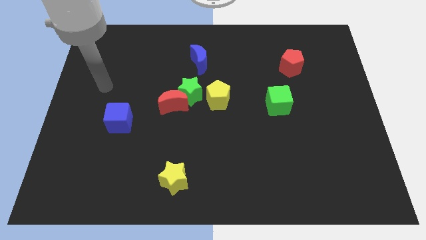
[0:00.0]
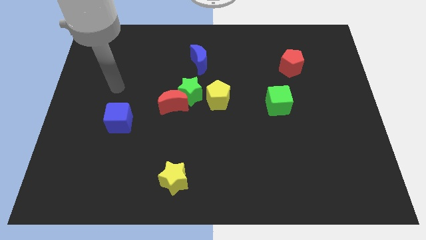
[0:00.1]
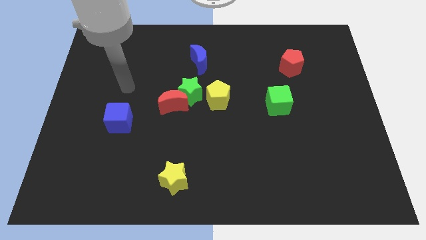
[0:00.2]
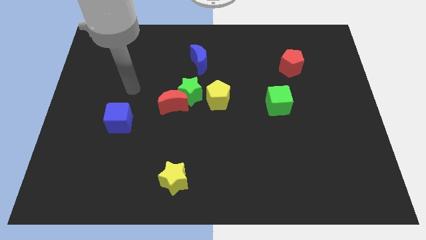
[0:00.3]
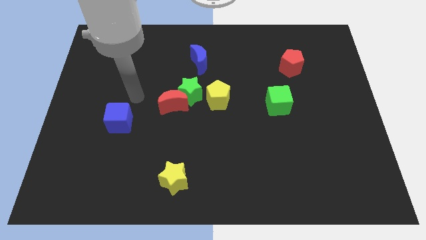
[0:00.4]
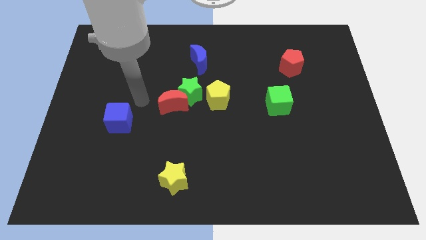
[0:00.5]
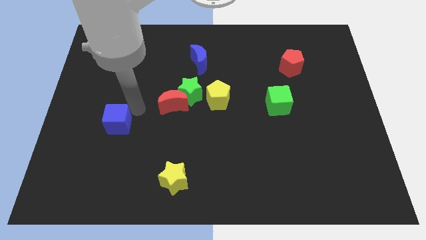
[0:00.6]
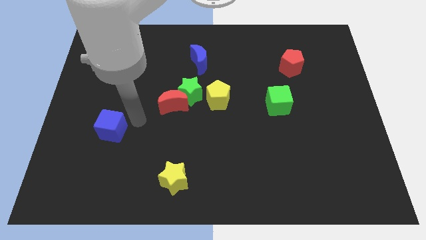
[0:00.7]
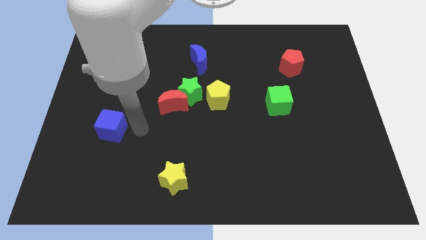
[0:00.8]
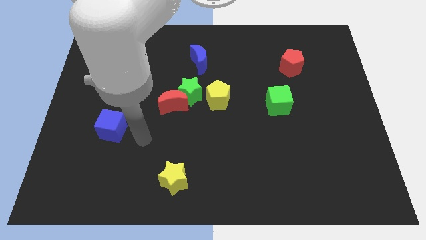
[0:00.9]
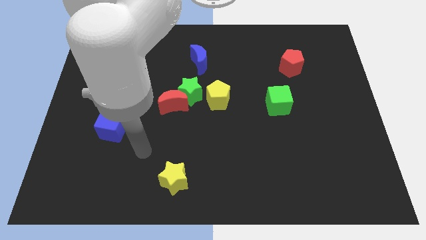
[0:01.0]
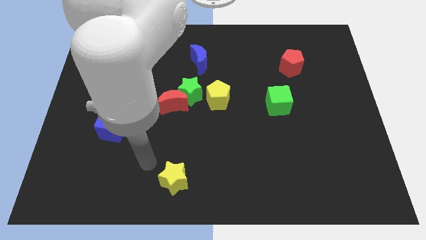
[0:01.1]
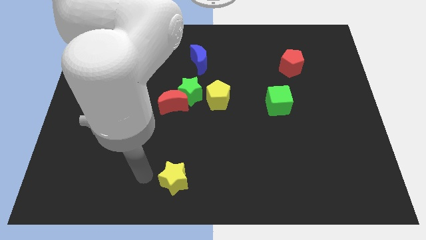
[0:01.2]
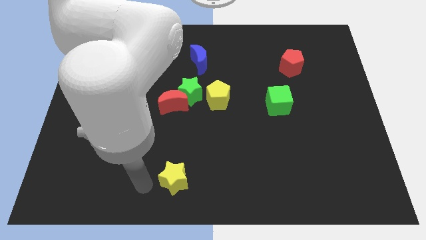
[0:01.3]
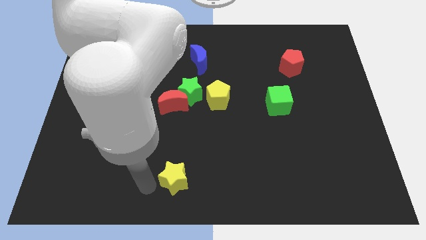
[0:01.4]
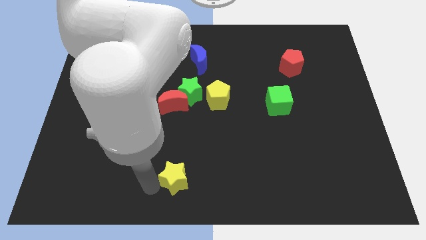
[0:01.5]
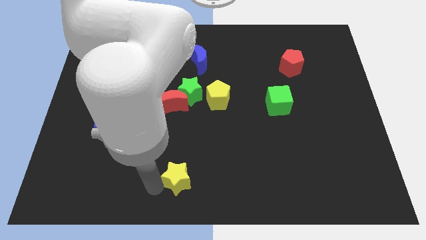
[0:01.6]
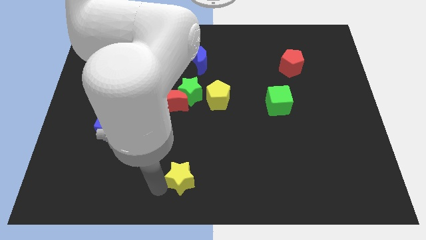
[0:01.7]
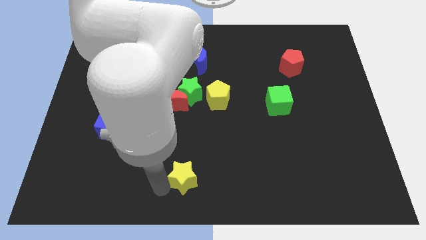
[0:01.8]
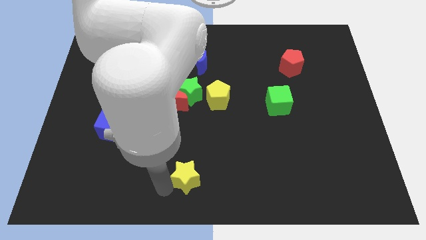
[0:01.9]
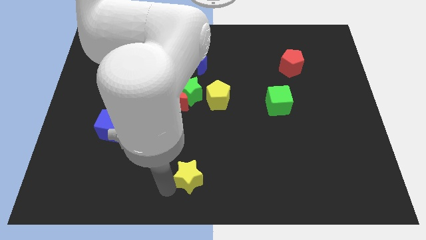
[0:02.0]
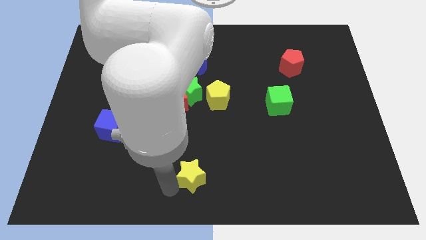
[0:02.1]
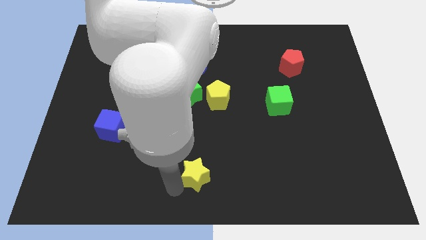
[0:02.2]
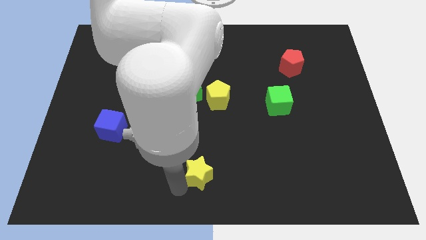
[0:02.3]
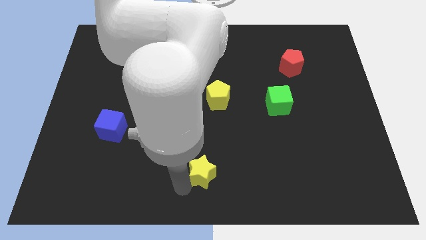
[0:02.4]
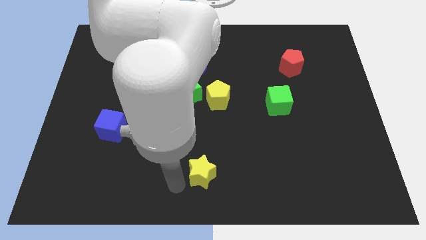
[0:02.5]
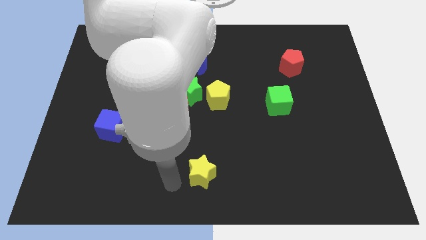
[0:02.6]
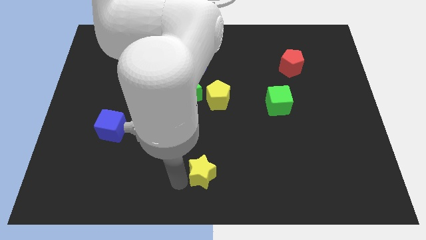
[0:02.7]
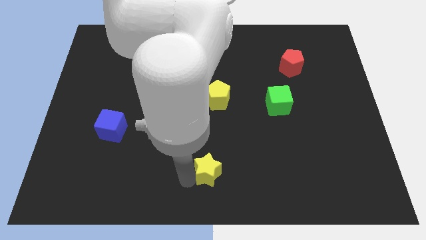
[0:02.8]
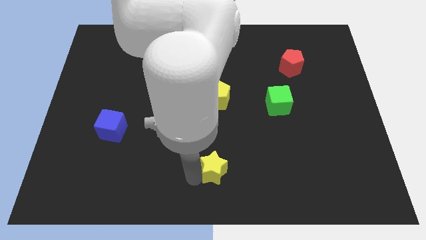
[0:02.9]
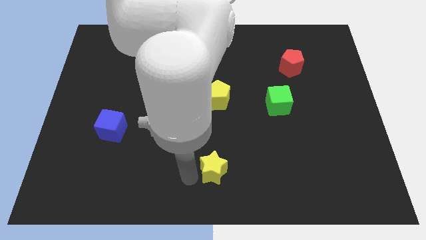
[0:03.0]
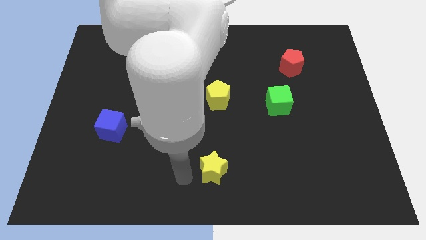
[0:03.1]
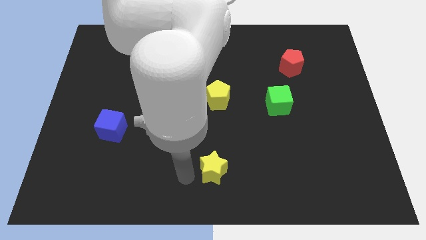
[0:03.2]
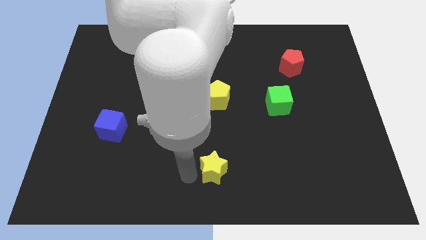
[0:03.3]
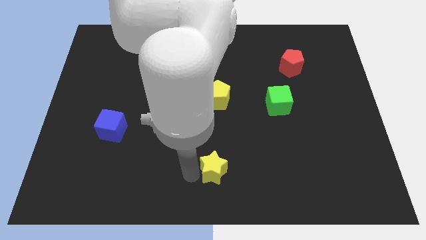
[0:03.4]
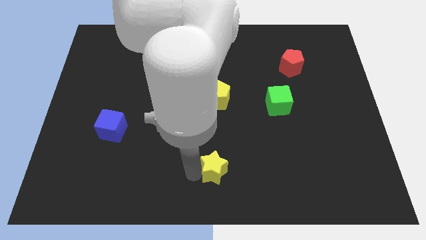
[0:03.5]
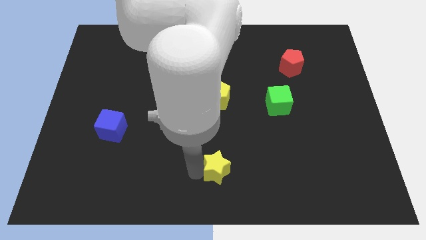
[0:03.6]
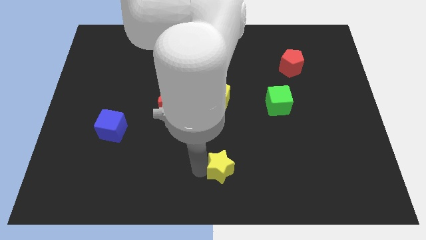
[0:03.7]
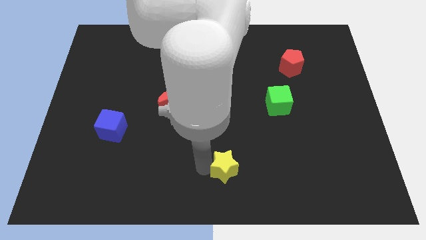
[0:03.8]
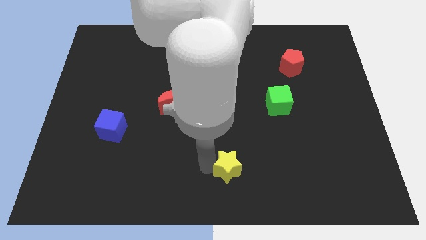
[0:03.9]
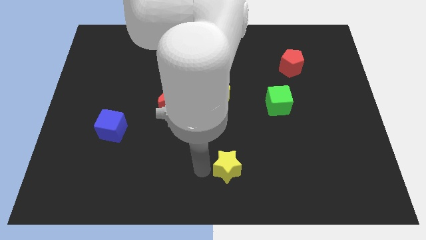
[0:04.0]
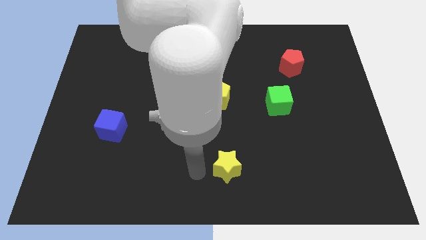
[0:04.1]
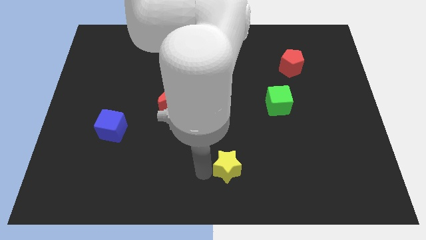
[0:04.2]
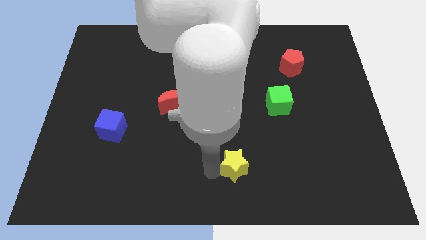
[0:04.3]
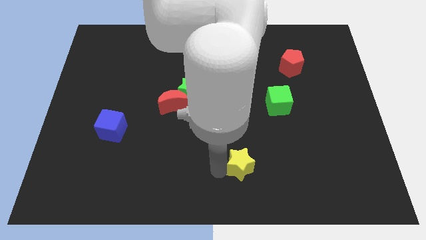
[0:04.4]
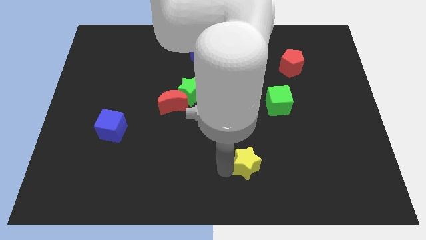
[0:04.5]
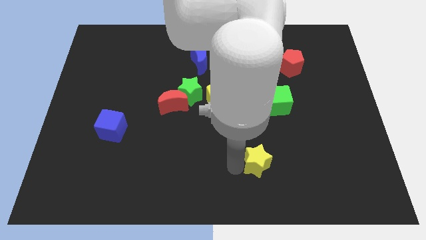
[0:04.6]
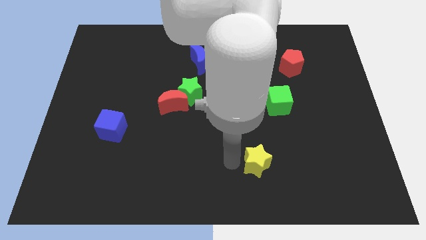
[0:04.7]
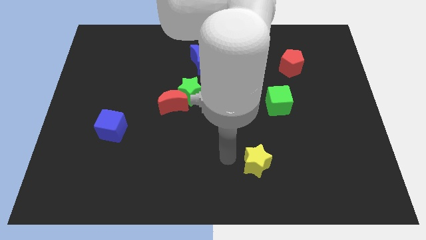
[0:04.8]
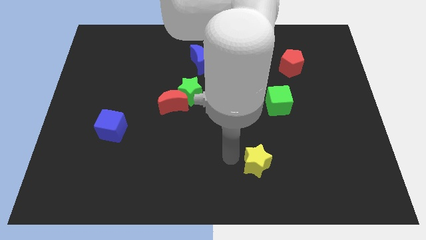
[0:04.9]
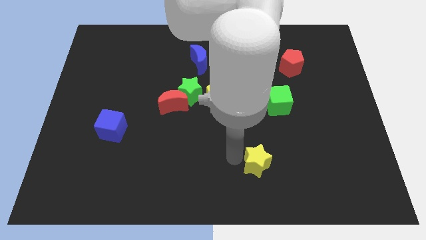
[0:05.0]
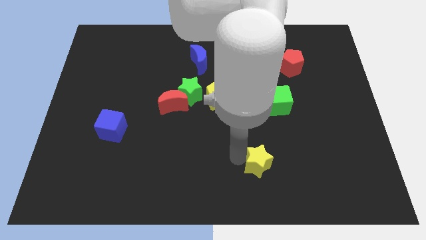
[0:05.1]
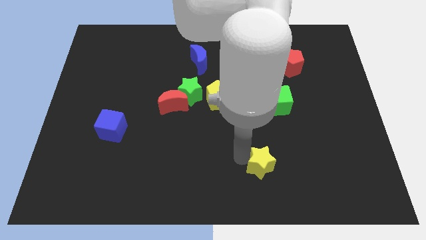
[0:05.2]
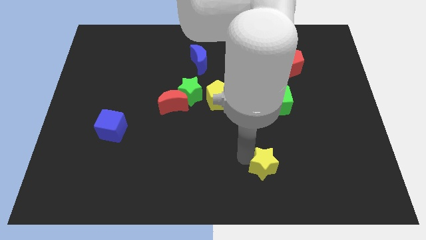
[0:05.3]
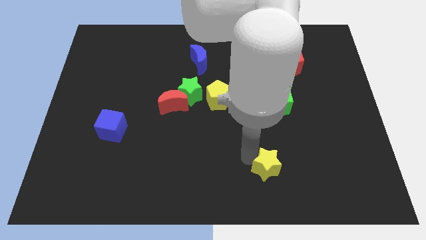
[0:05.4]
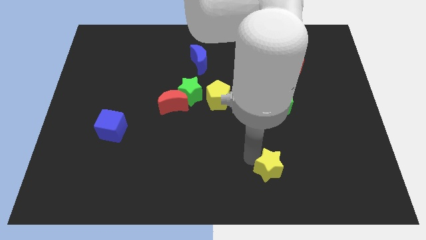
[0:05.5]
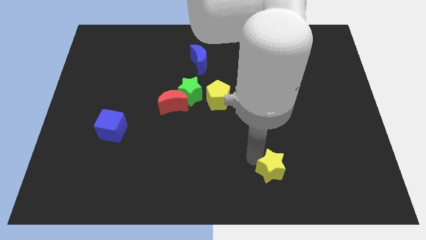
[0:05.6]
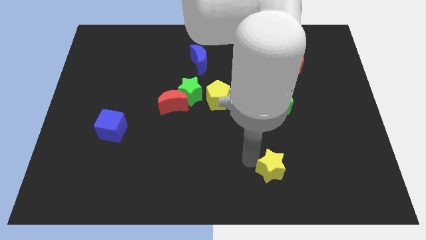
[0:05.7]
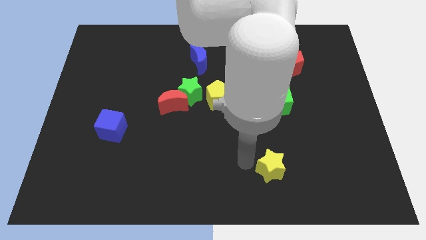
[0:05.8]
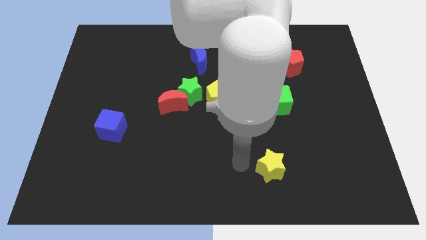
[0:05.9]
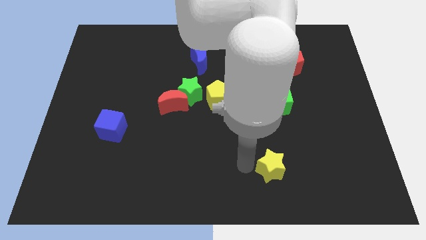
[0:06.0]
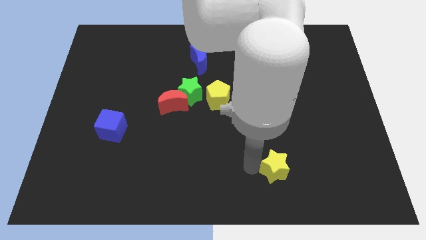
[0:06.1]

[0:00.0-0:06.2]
move the yellow star to the right

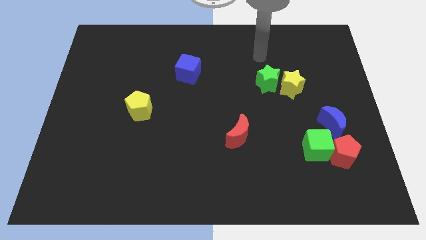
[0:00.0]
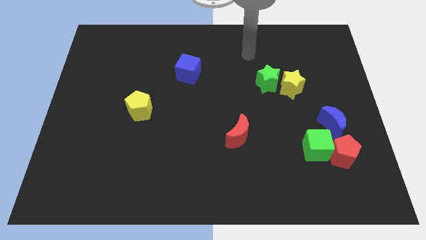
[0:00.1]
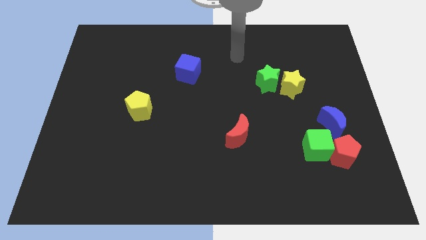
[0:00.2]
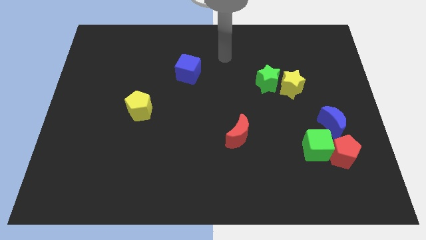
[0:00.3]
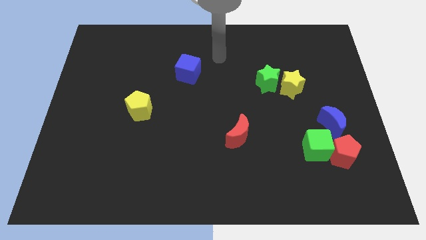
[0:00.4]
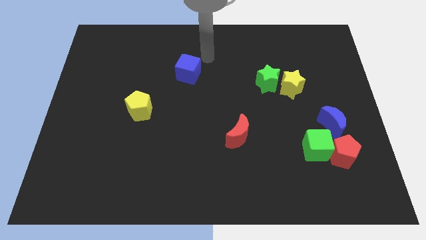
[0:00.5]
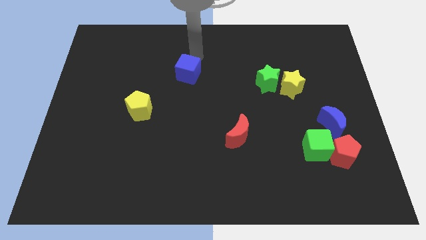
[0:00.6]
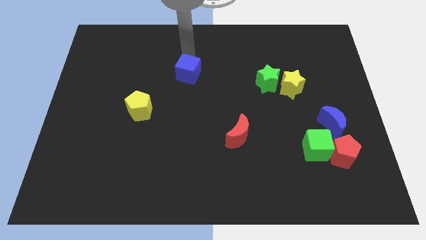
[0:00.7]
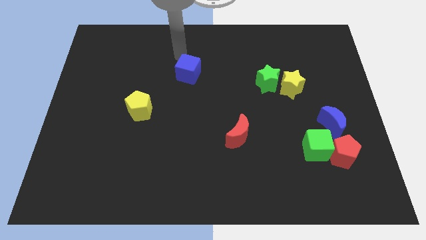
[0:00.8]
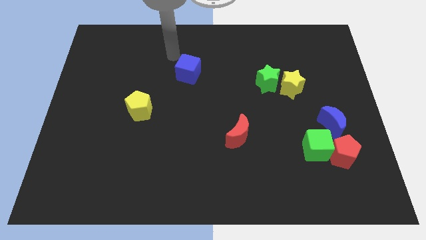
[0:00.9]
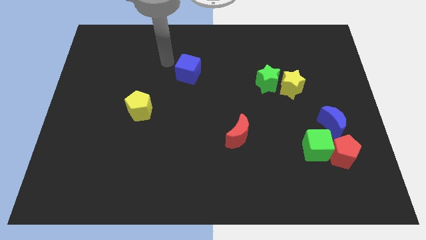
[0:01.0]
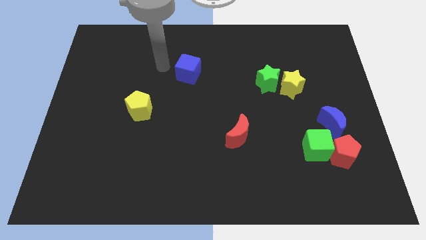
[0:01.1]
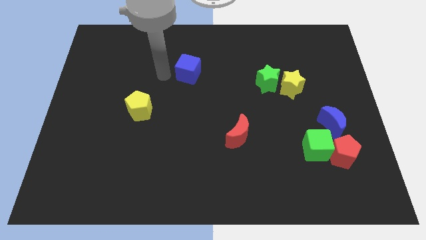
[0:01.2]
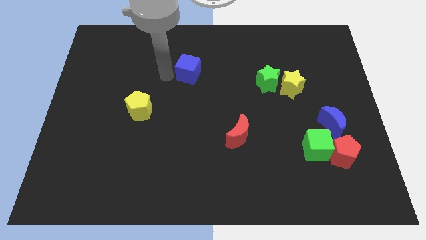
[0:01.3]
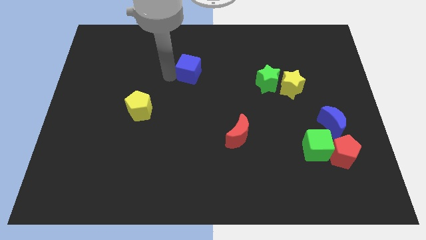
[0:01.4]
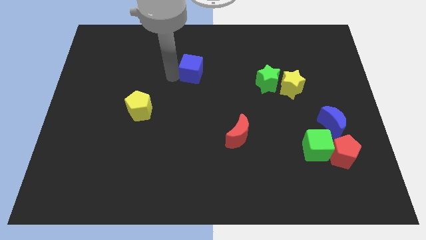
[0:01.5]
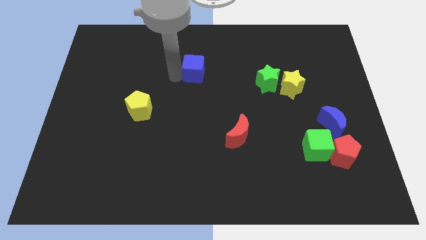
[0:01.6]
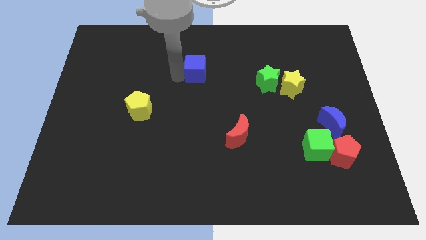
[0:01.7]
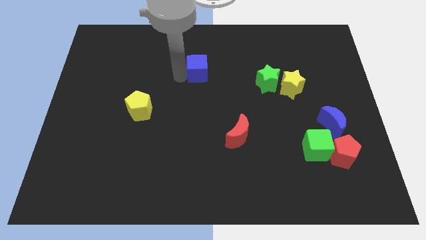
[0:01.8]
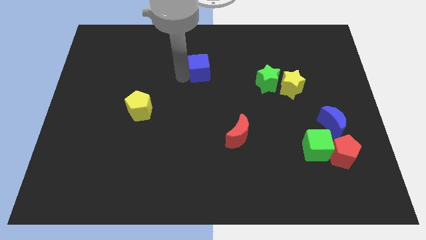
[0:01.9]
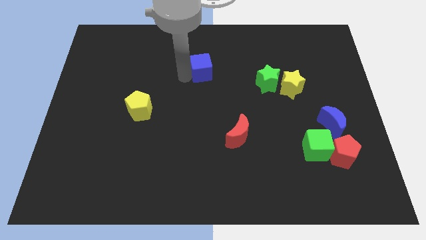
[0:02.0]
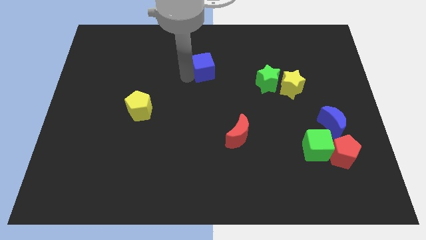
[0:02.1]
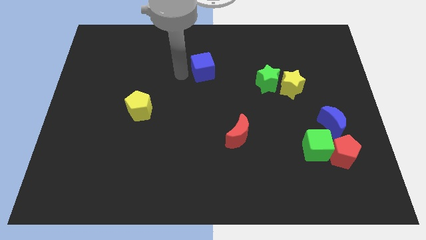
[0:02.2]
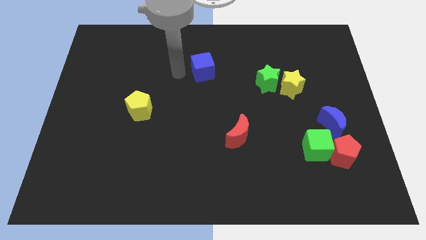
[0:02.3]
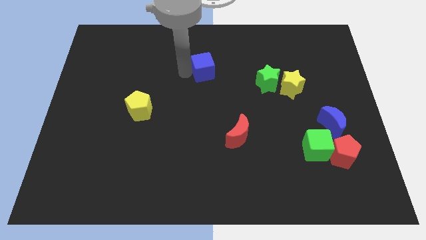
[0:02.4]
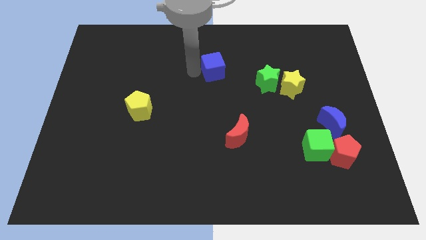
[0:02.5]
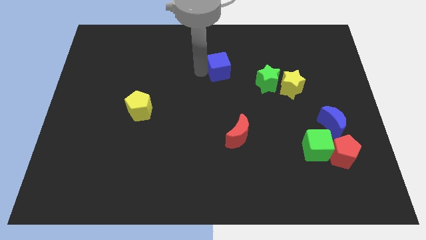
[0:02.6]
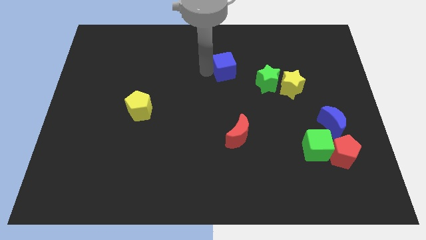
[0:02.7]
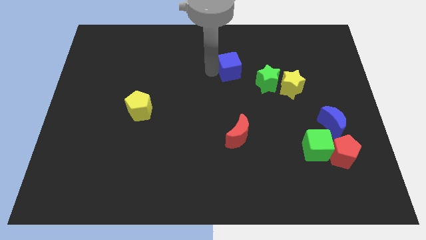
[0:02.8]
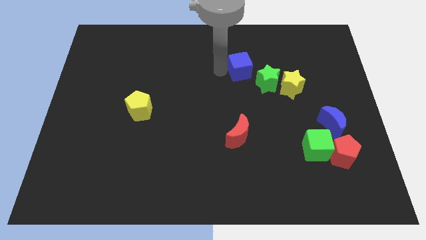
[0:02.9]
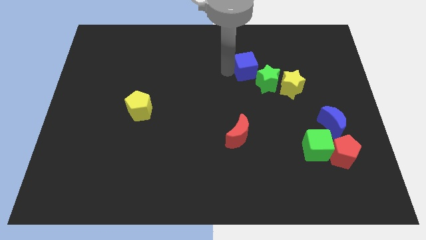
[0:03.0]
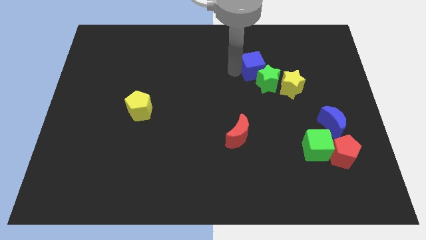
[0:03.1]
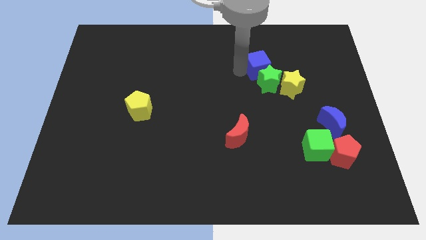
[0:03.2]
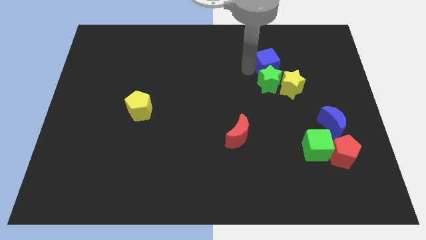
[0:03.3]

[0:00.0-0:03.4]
move the blue cube to the right
